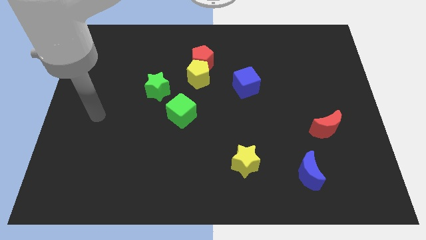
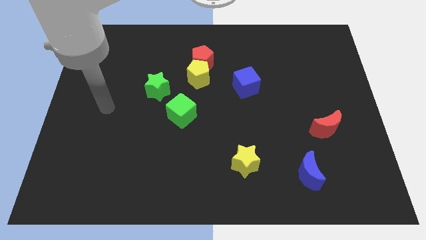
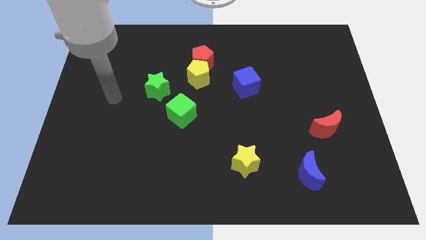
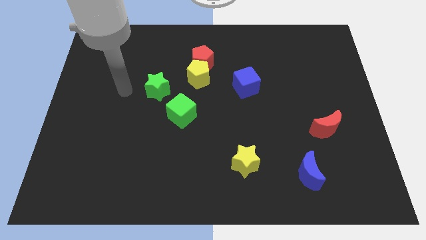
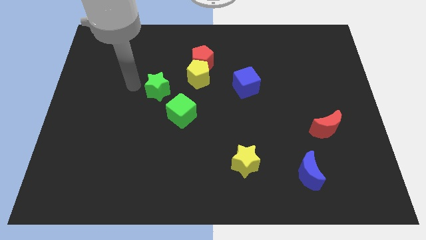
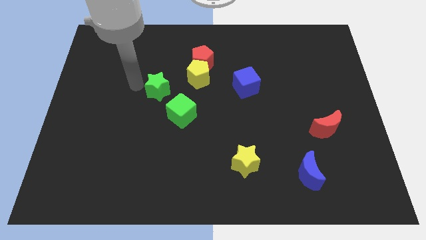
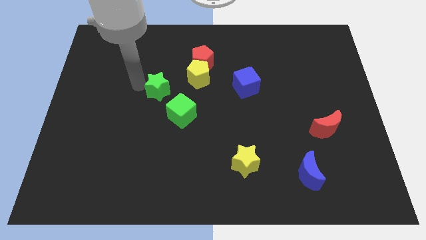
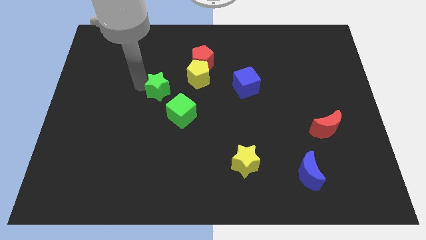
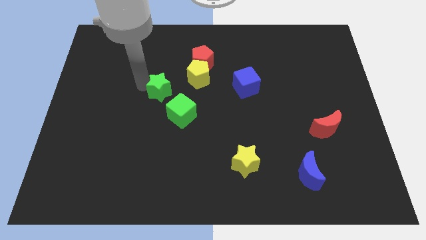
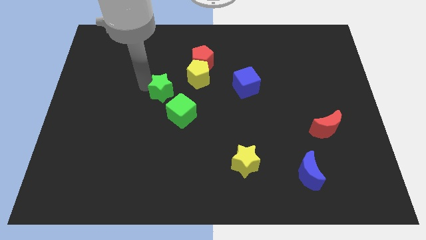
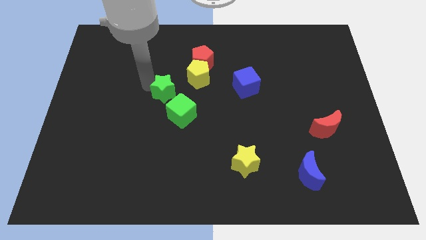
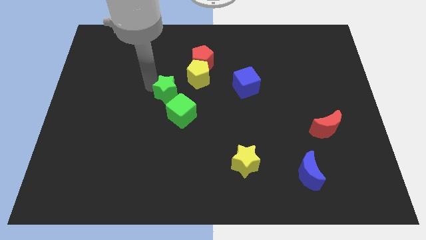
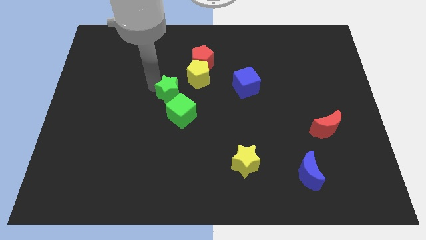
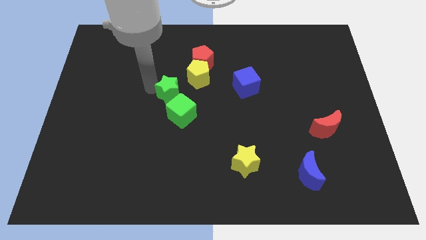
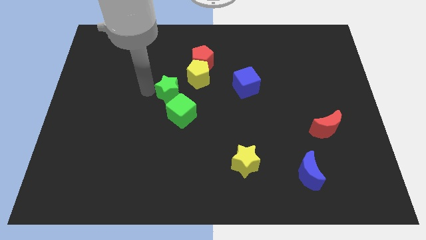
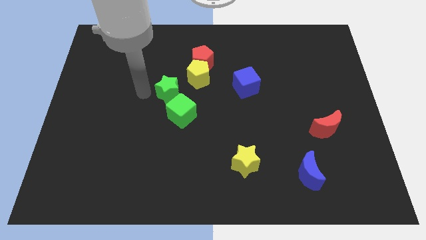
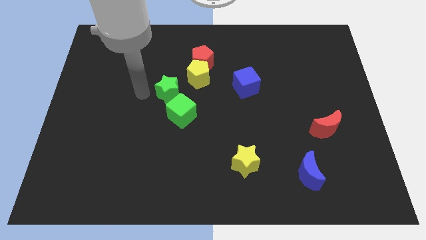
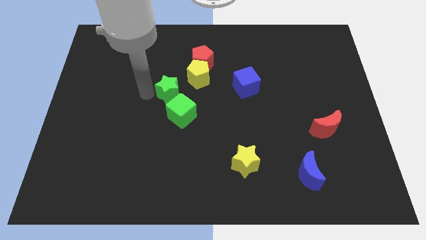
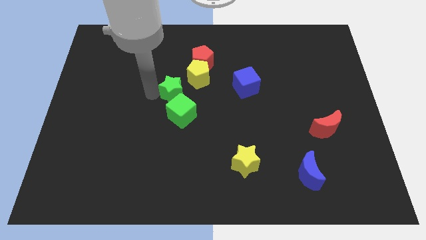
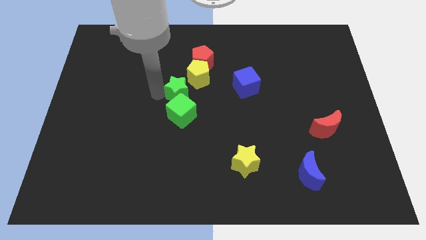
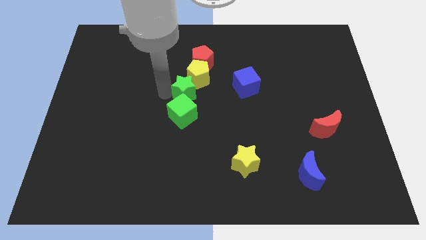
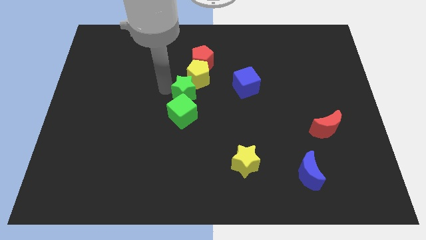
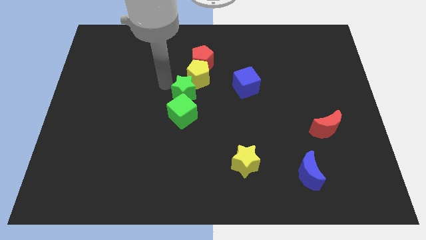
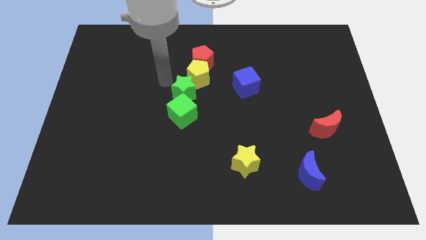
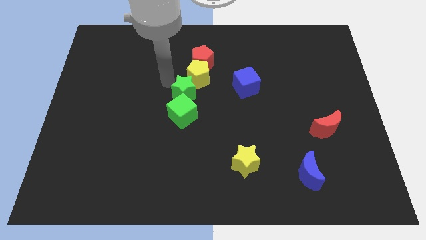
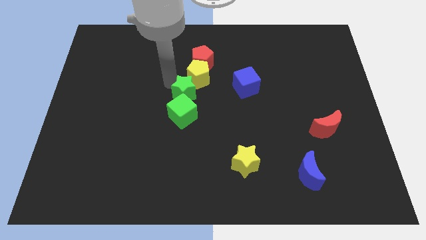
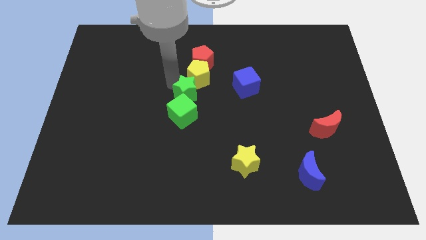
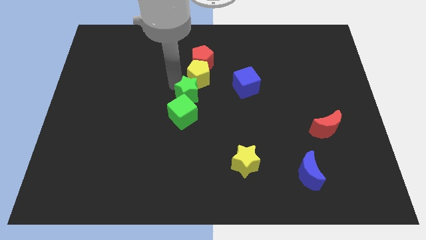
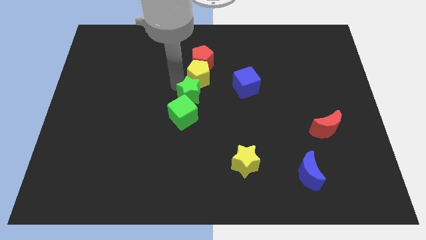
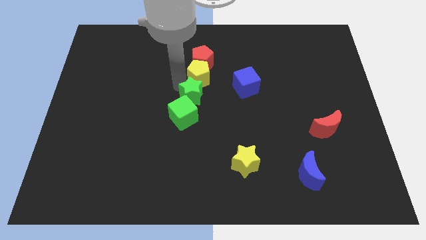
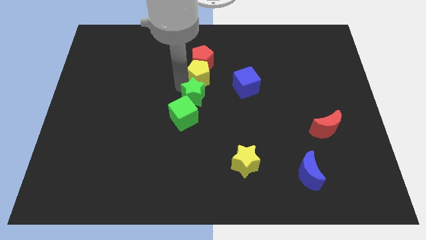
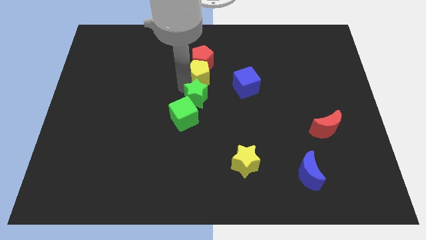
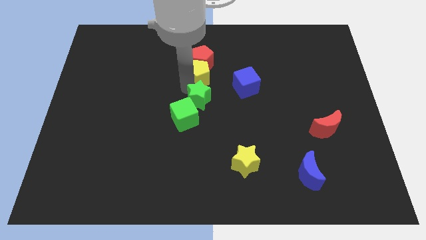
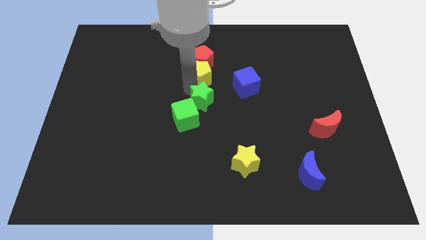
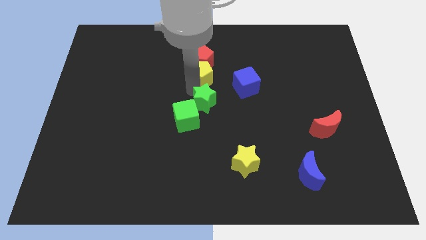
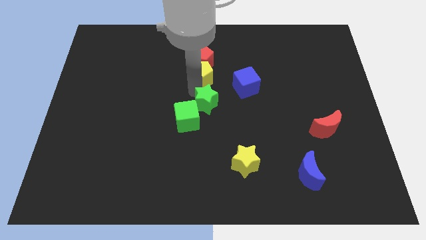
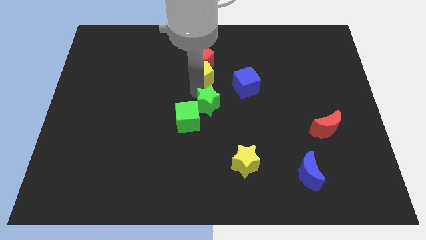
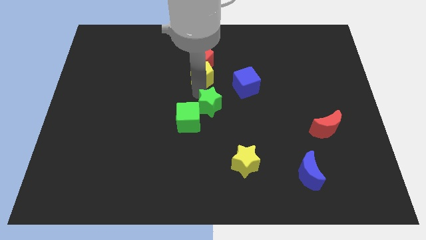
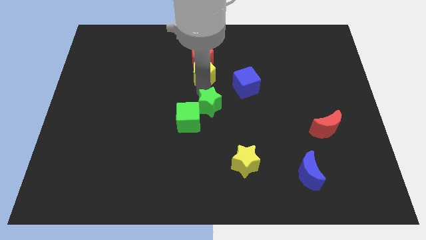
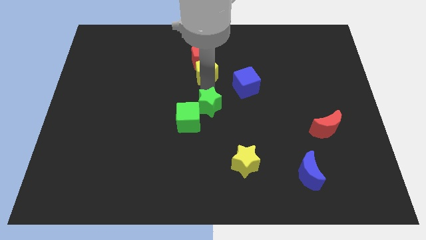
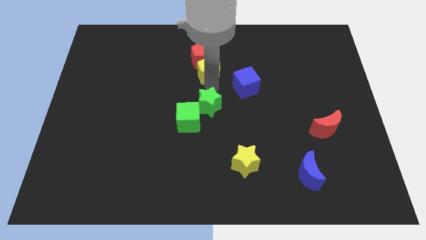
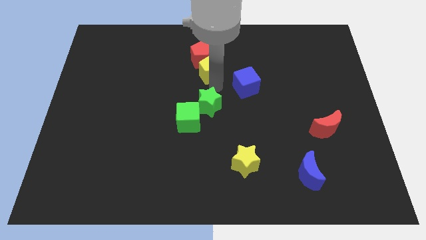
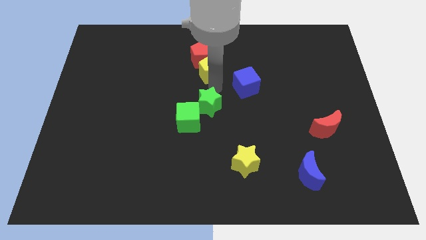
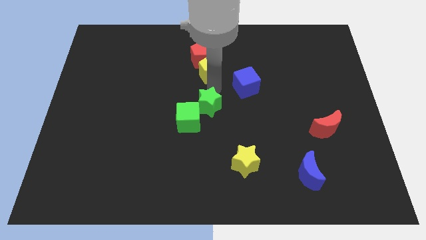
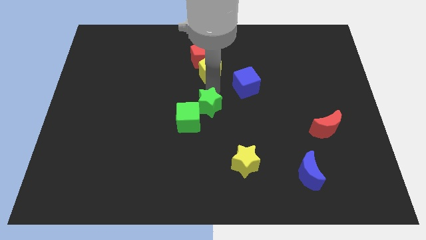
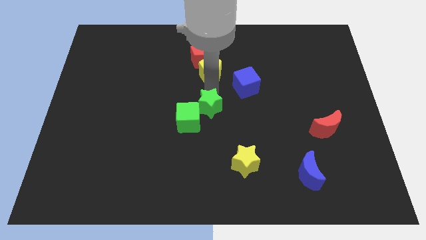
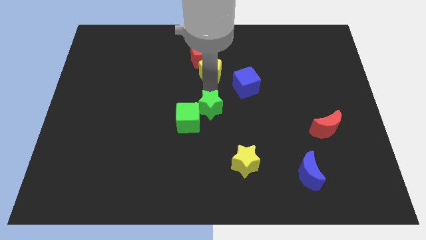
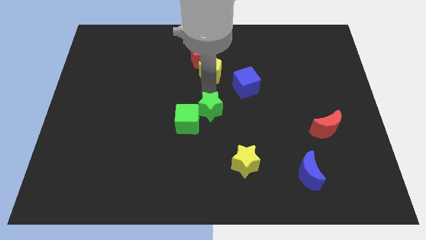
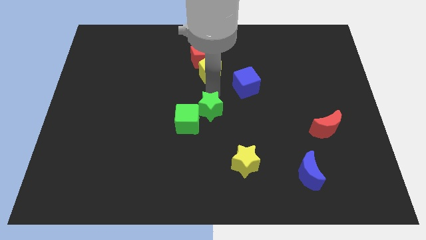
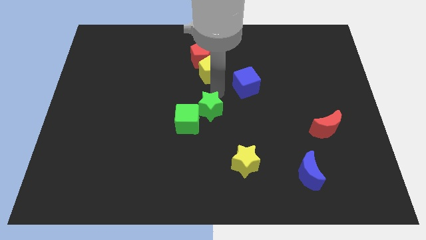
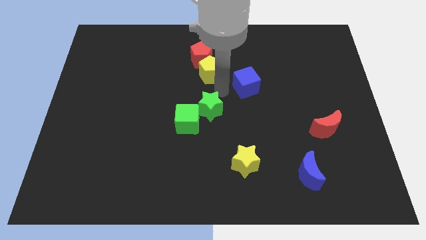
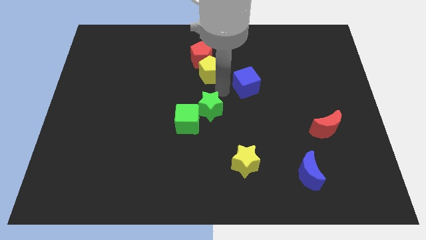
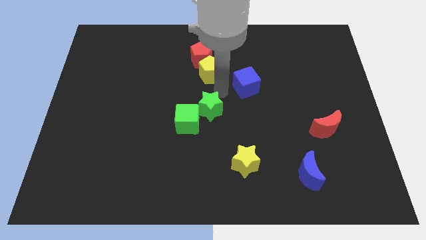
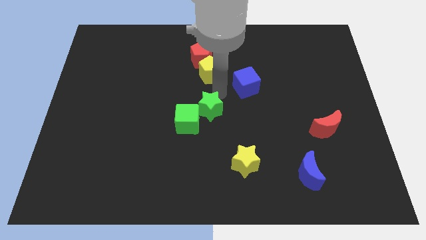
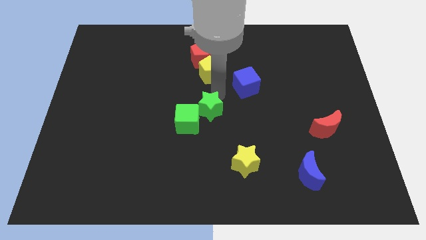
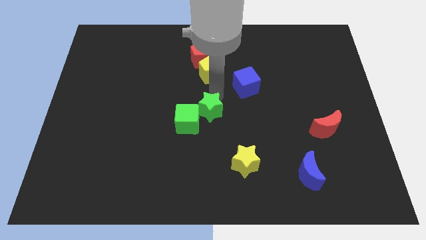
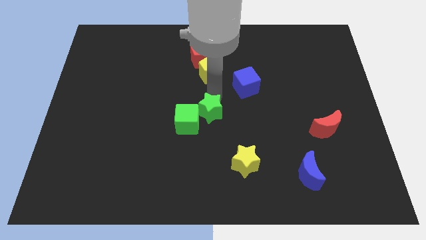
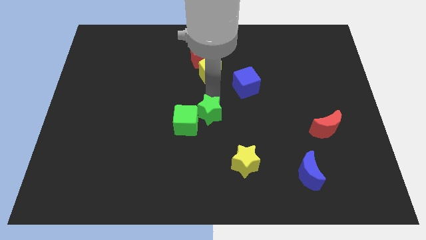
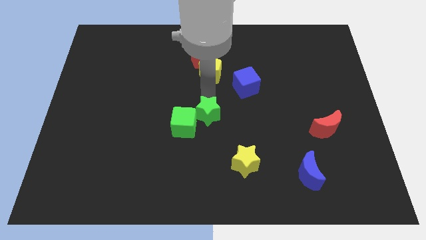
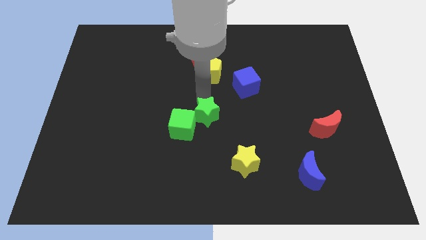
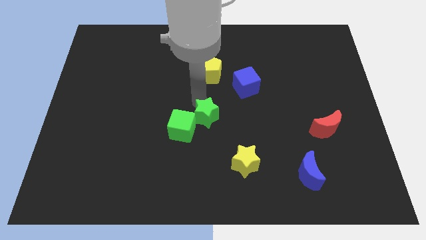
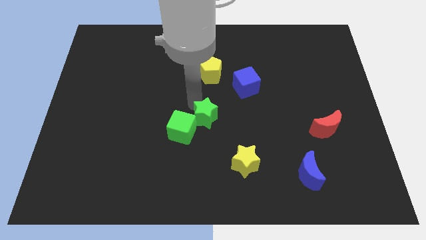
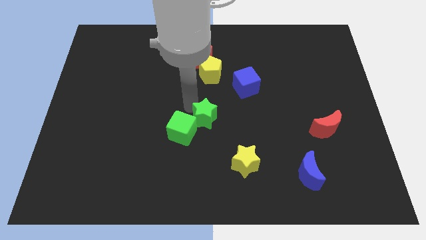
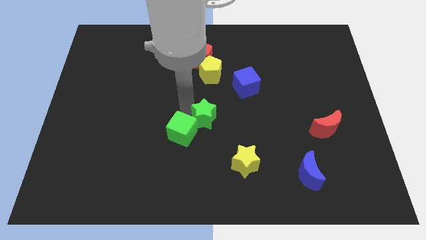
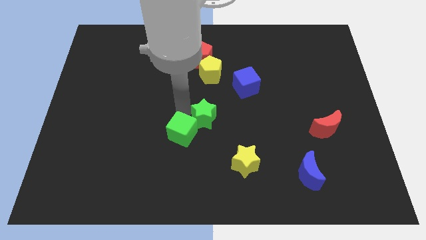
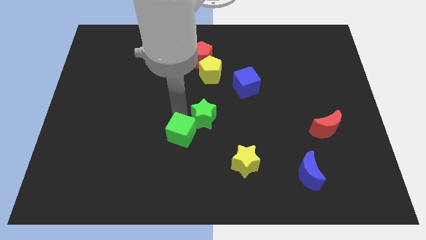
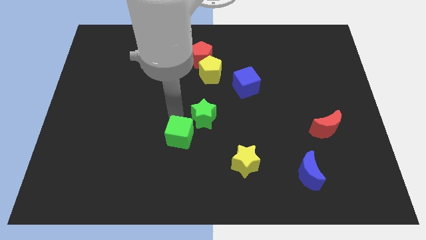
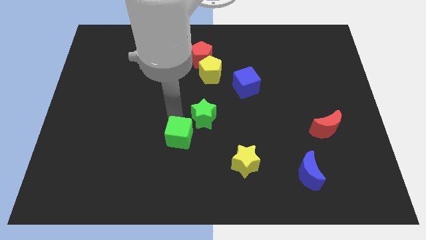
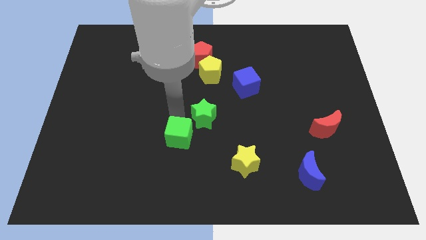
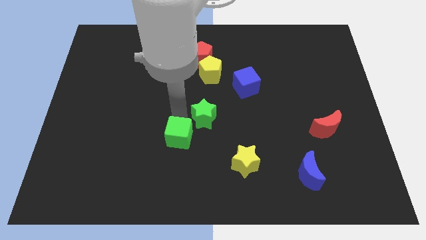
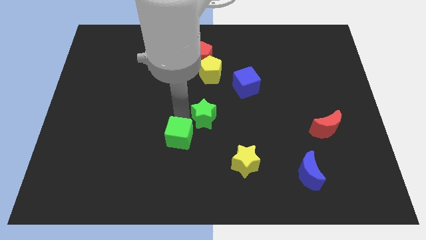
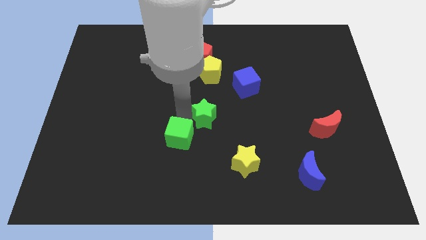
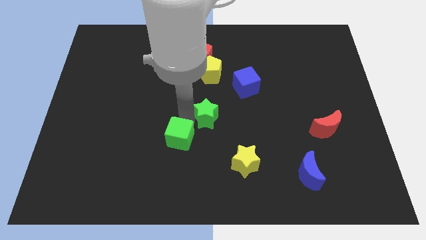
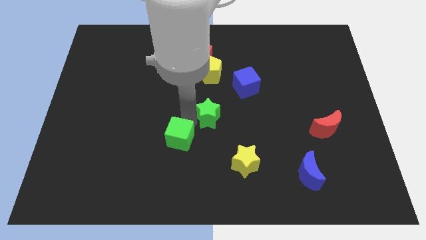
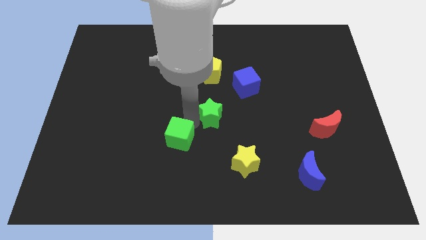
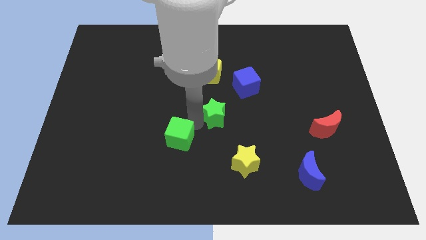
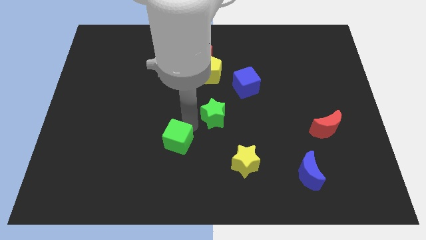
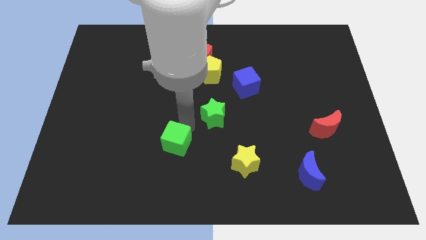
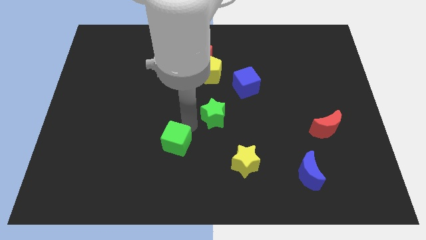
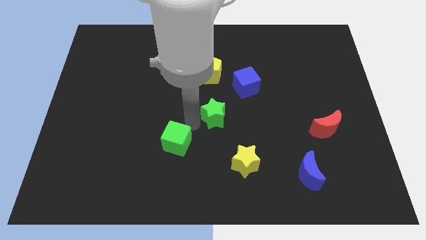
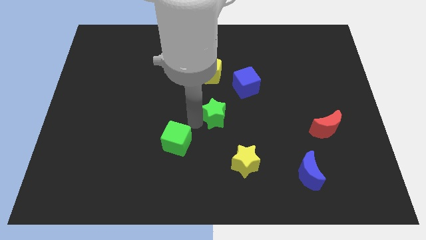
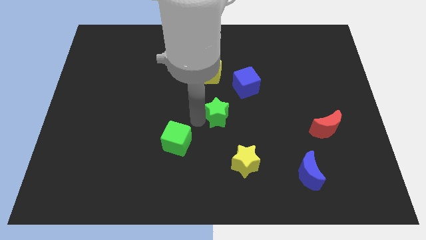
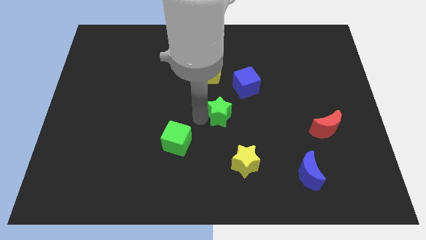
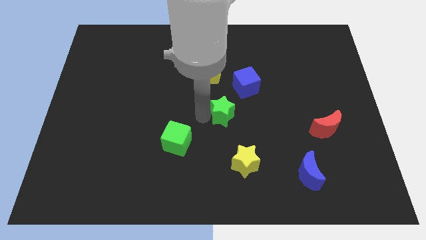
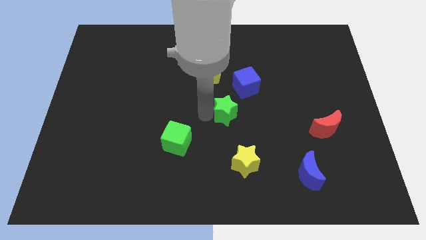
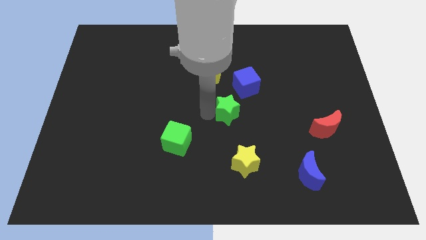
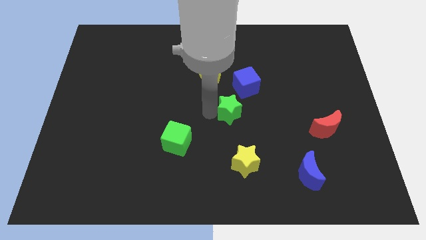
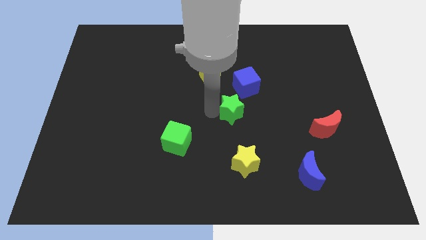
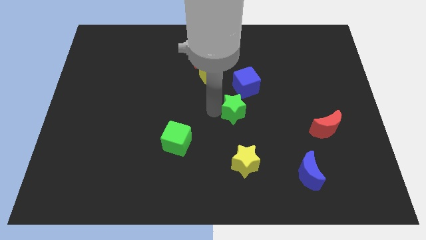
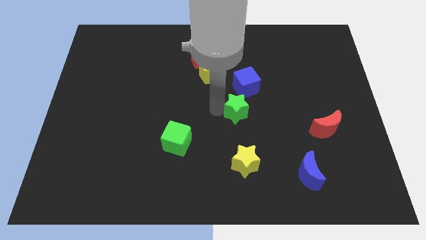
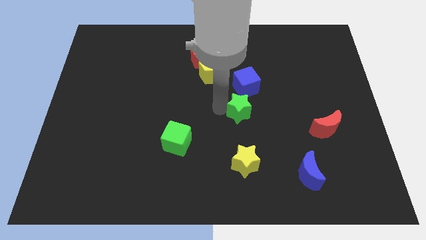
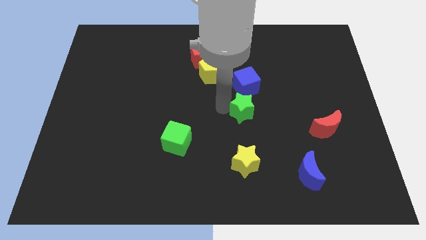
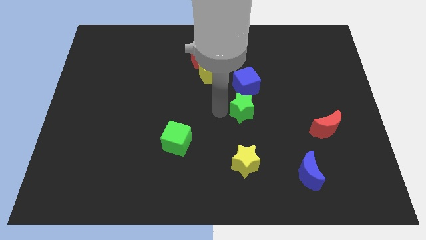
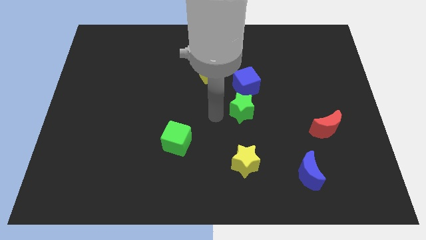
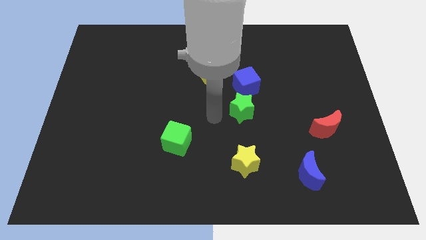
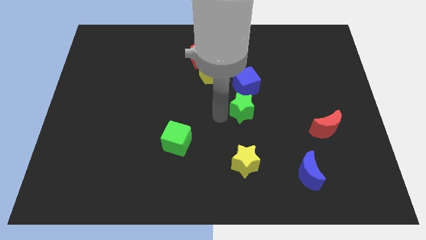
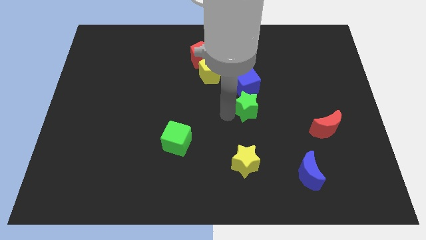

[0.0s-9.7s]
slide the green star right
